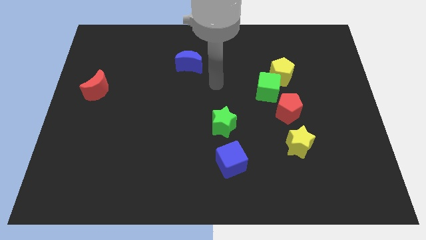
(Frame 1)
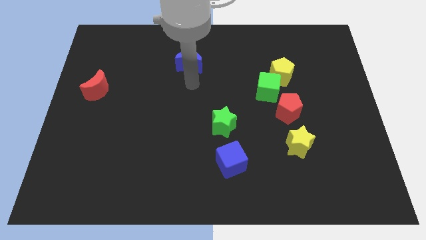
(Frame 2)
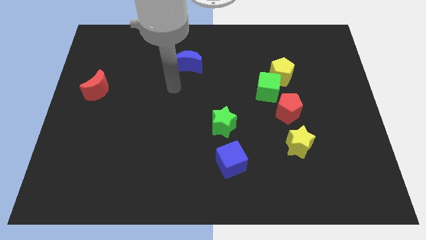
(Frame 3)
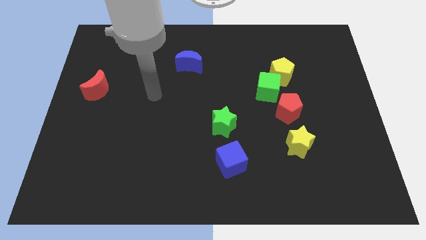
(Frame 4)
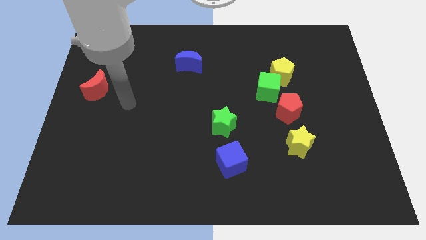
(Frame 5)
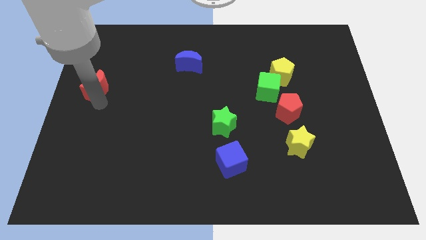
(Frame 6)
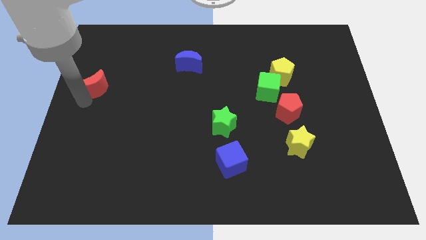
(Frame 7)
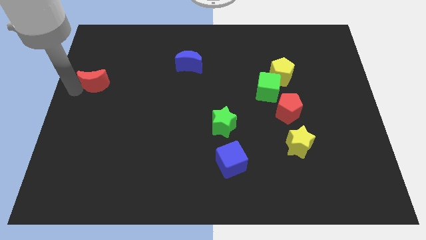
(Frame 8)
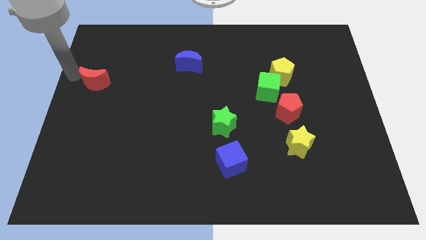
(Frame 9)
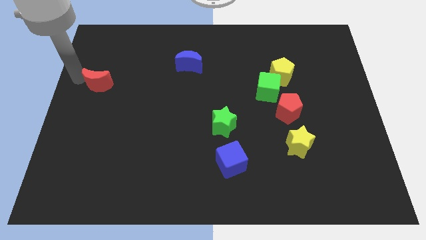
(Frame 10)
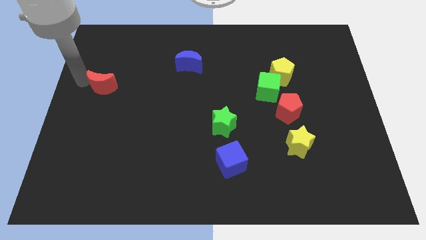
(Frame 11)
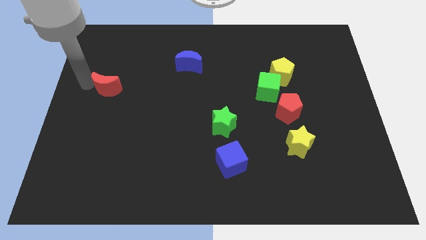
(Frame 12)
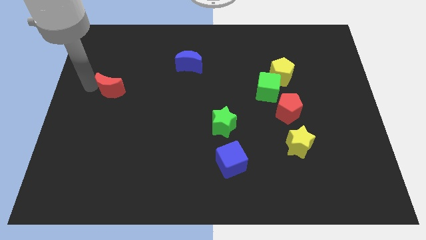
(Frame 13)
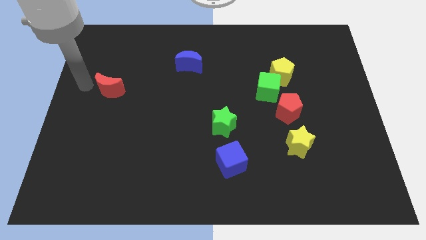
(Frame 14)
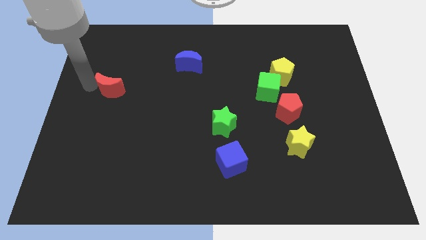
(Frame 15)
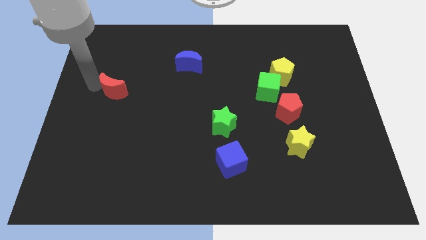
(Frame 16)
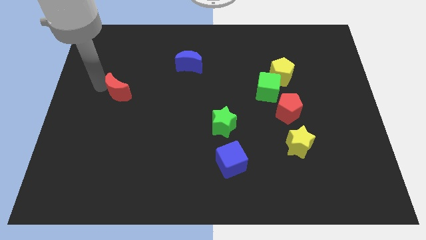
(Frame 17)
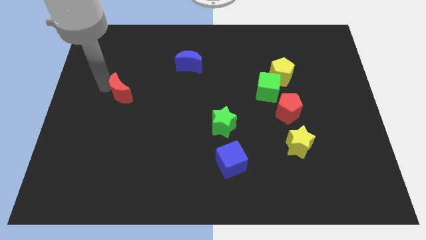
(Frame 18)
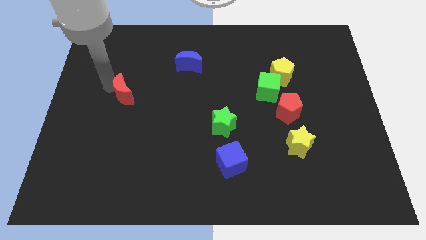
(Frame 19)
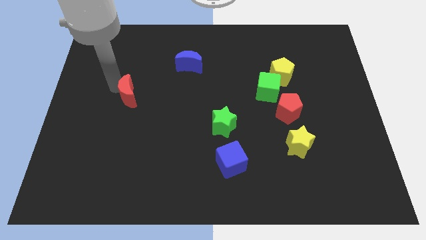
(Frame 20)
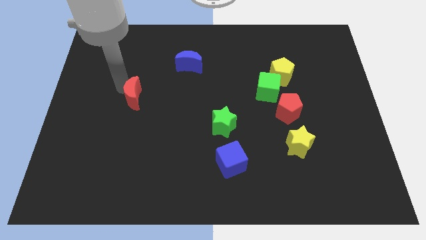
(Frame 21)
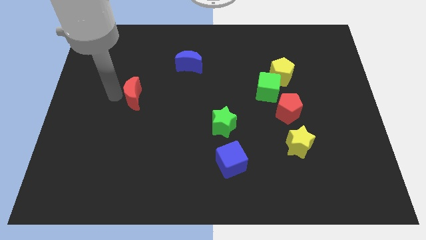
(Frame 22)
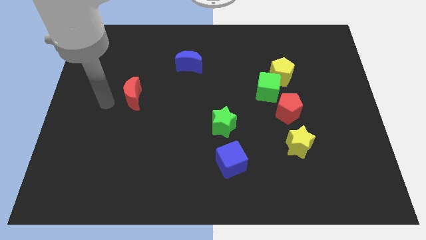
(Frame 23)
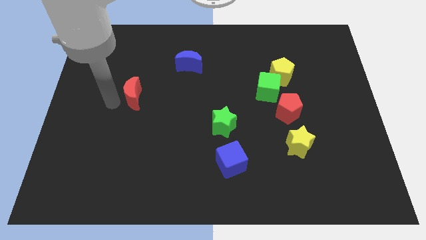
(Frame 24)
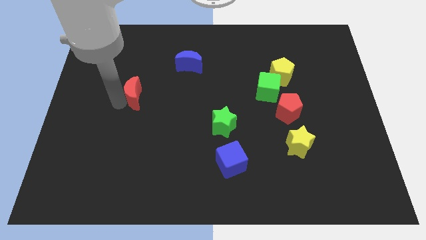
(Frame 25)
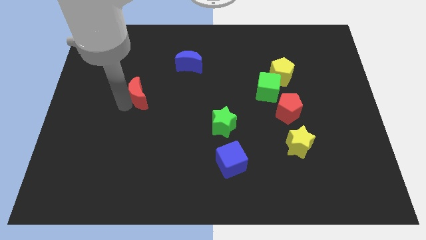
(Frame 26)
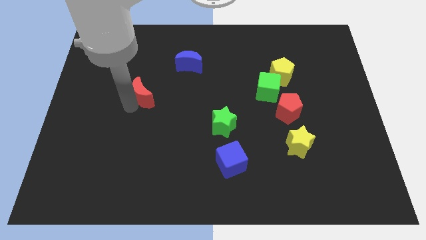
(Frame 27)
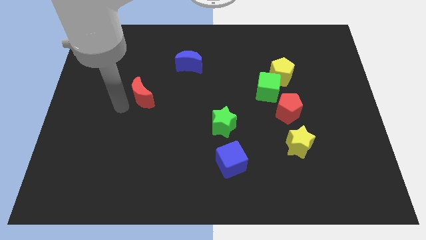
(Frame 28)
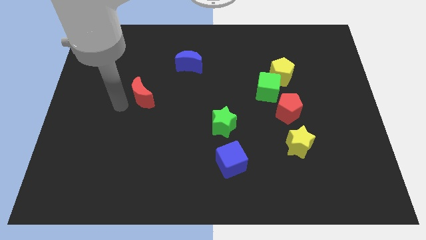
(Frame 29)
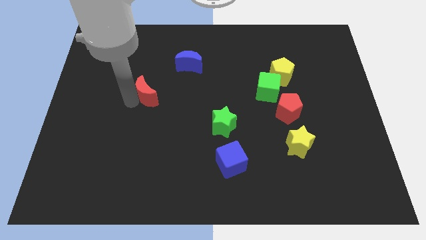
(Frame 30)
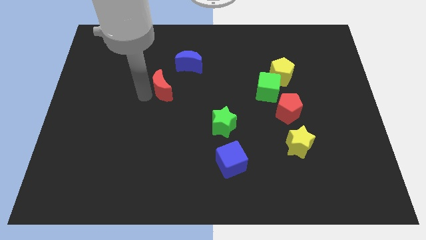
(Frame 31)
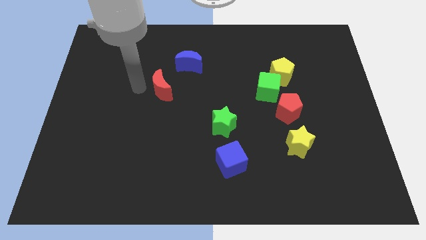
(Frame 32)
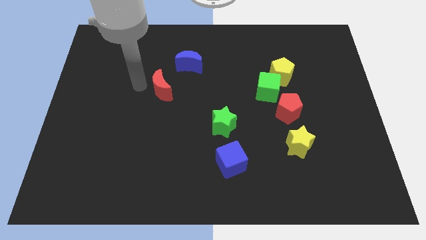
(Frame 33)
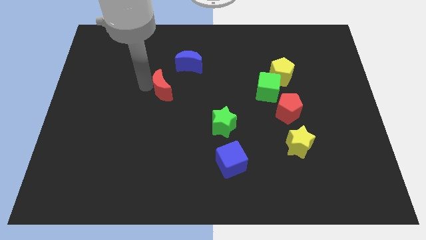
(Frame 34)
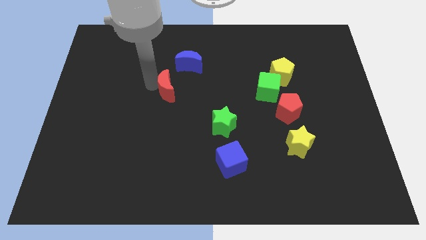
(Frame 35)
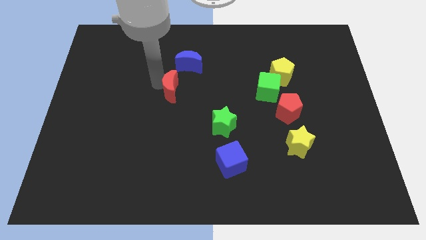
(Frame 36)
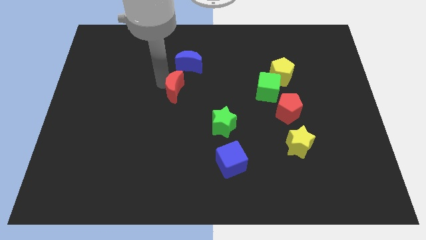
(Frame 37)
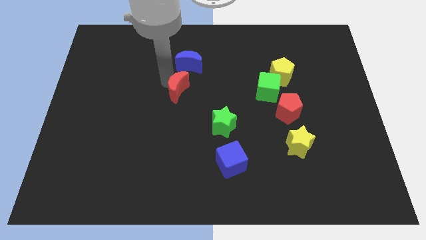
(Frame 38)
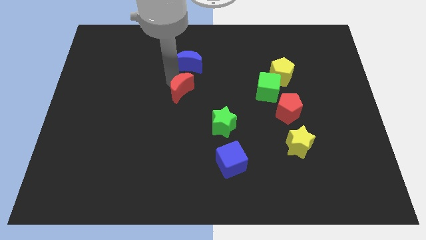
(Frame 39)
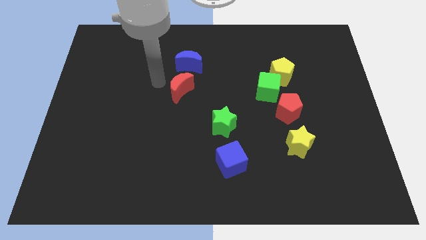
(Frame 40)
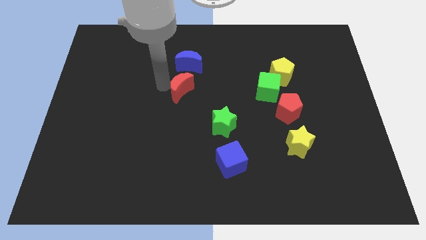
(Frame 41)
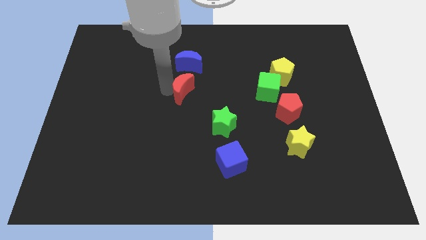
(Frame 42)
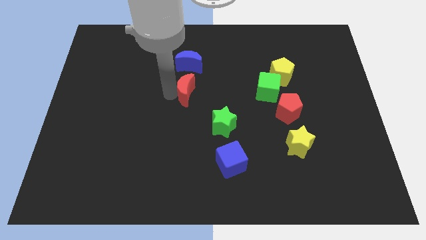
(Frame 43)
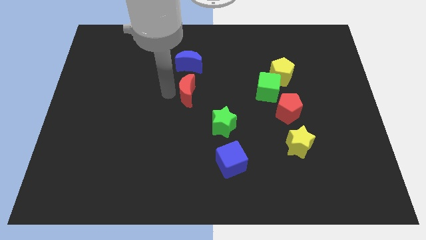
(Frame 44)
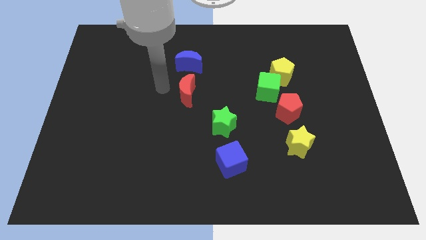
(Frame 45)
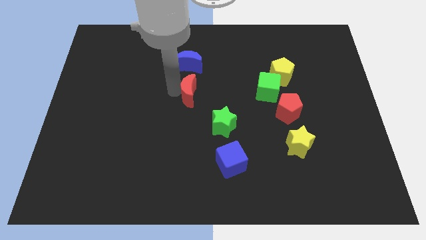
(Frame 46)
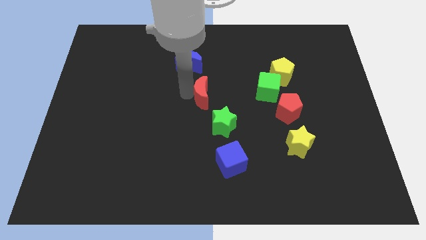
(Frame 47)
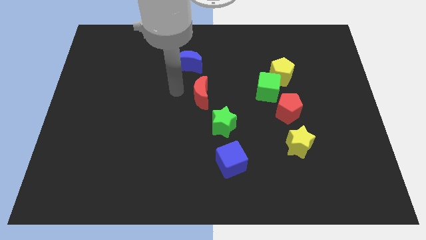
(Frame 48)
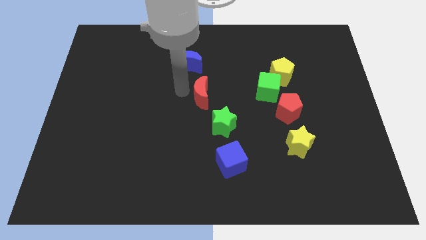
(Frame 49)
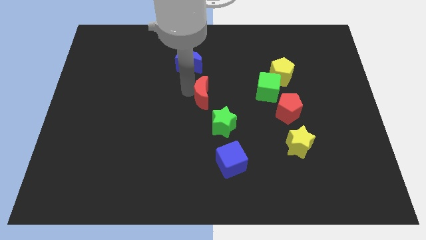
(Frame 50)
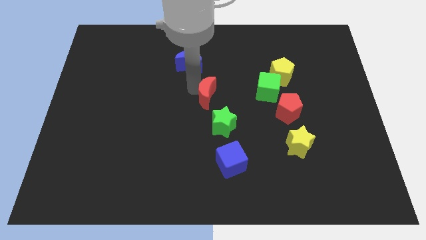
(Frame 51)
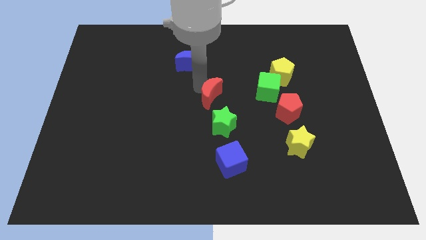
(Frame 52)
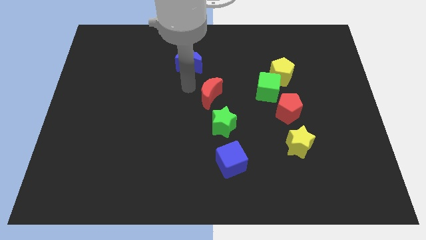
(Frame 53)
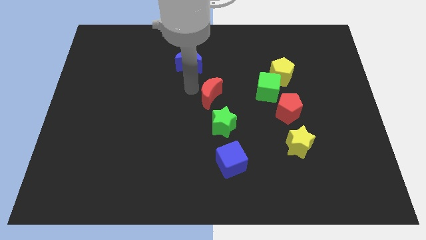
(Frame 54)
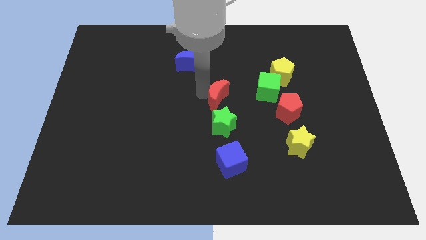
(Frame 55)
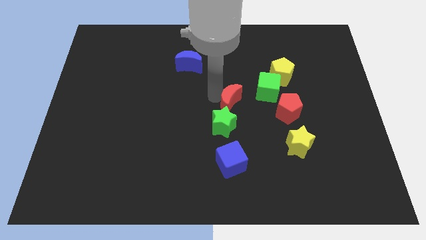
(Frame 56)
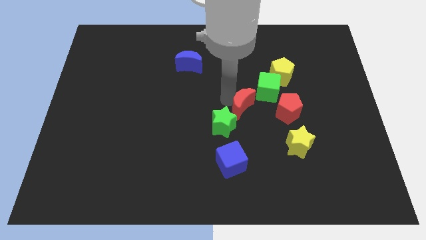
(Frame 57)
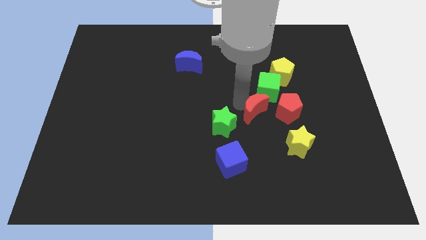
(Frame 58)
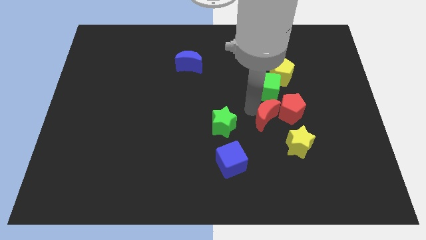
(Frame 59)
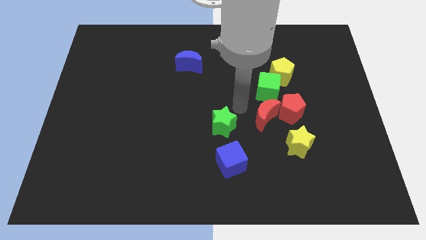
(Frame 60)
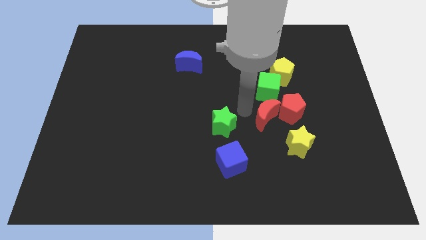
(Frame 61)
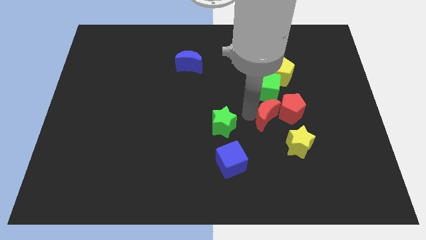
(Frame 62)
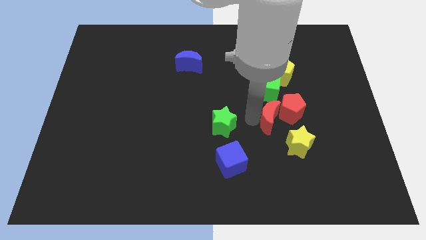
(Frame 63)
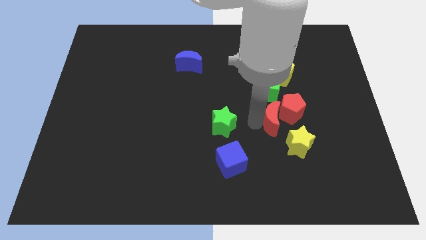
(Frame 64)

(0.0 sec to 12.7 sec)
slide the red moon below the yellow pentagon

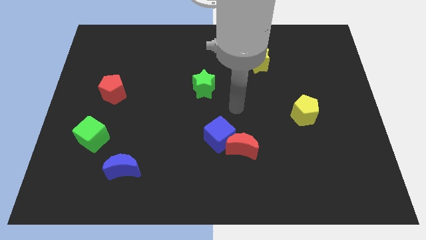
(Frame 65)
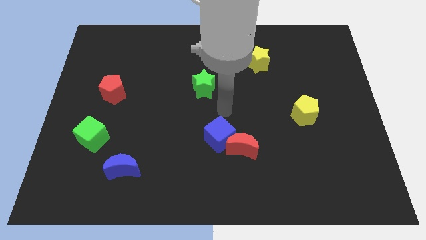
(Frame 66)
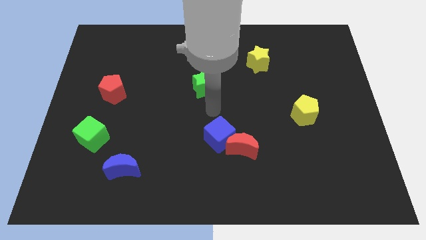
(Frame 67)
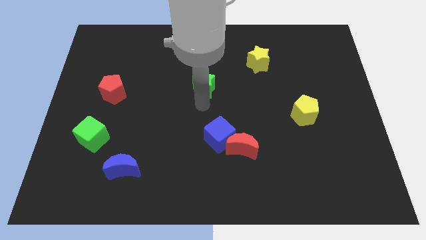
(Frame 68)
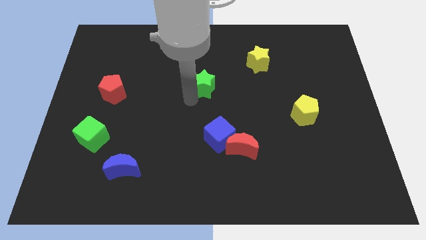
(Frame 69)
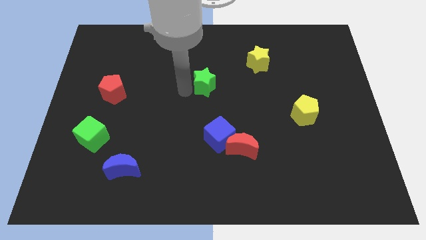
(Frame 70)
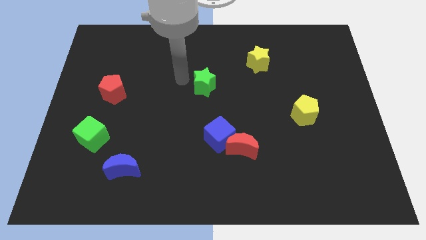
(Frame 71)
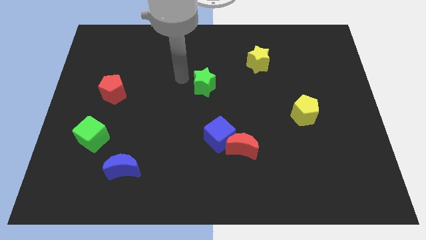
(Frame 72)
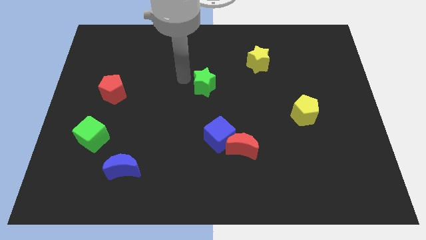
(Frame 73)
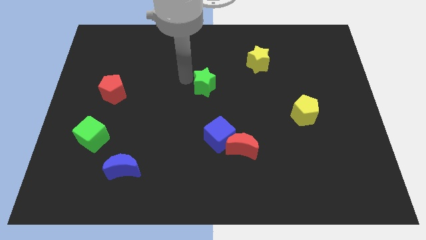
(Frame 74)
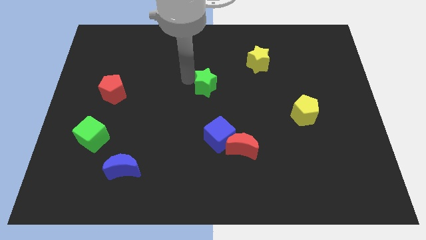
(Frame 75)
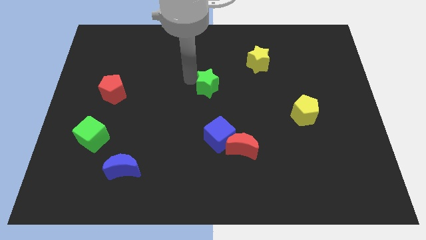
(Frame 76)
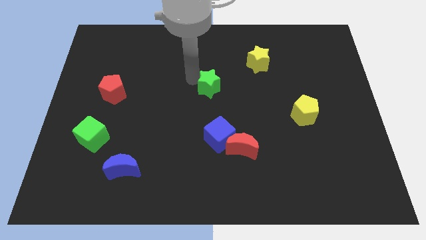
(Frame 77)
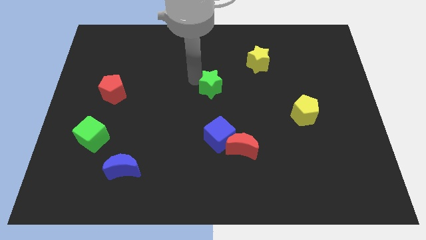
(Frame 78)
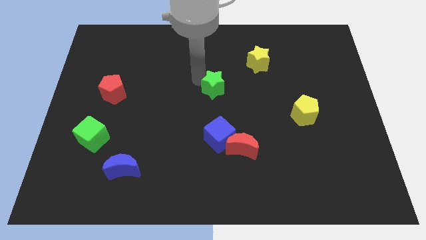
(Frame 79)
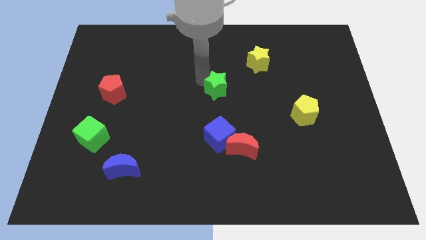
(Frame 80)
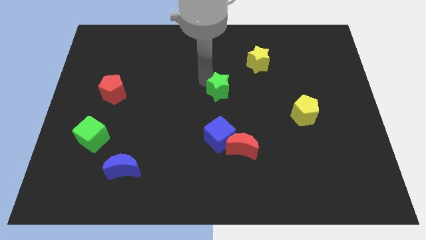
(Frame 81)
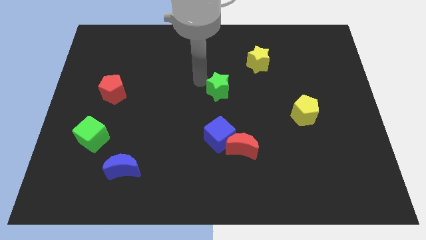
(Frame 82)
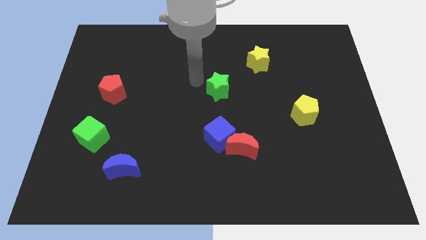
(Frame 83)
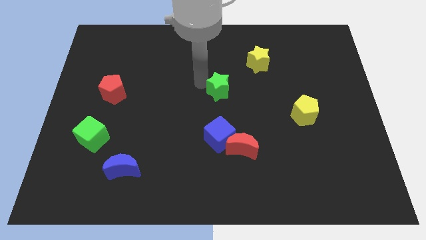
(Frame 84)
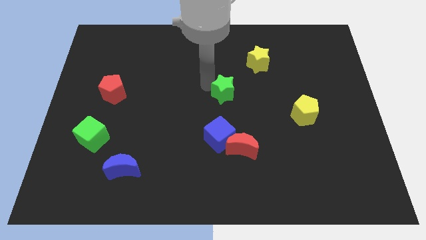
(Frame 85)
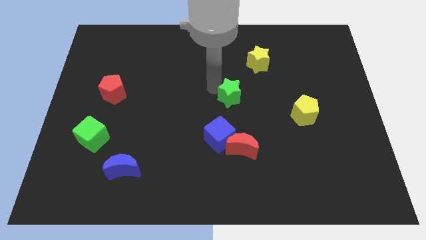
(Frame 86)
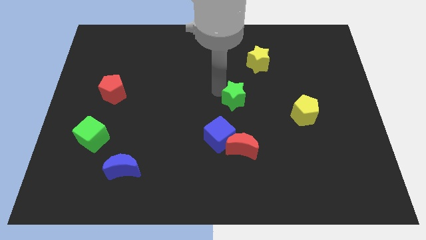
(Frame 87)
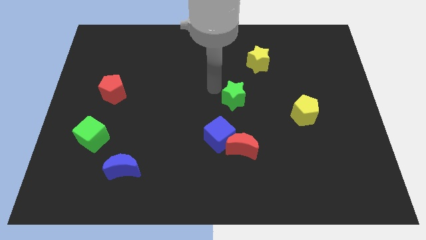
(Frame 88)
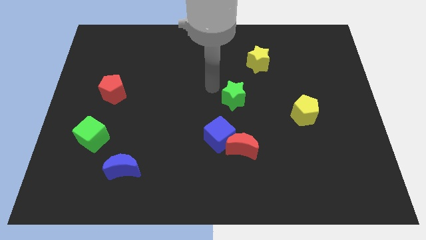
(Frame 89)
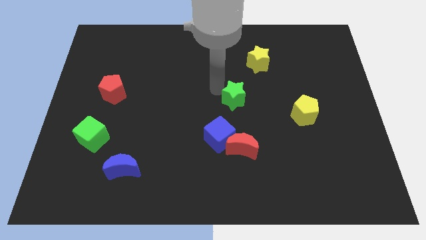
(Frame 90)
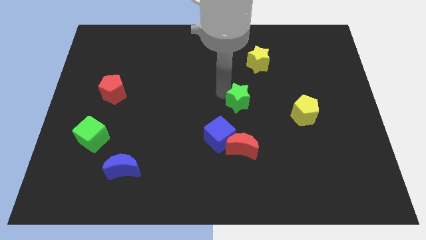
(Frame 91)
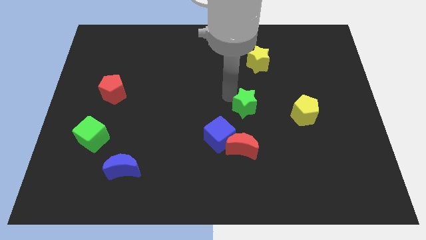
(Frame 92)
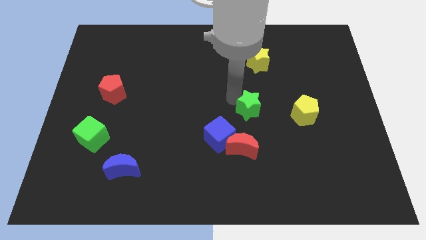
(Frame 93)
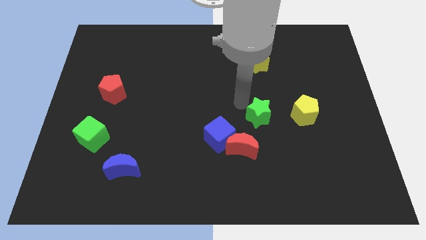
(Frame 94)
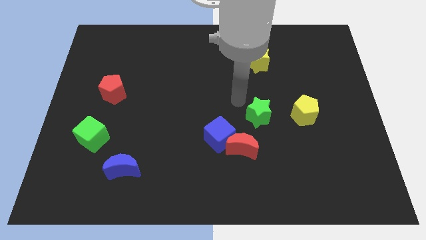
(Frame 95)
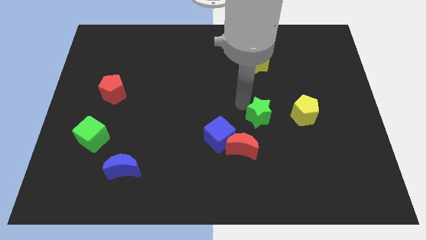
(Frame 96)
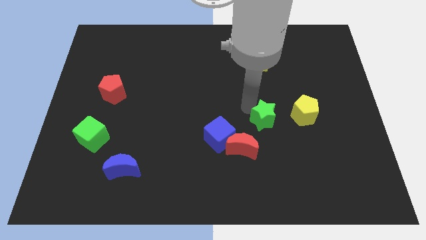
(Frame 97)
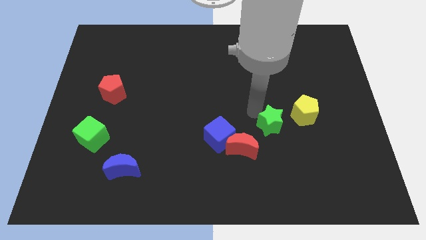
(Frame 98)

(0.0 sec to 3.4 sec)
move the green star to the bottom left side of the yellow pentagon
